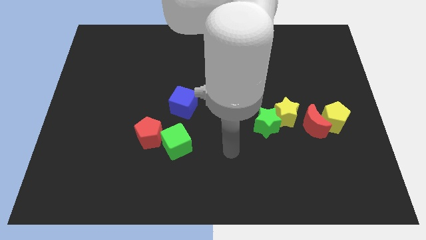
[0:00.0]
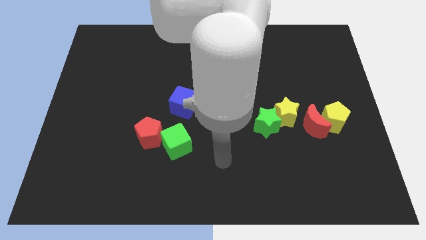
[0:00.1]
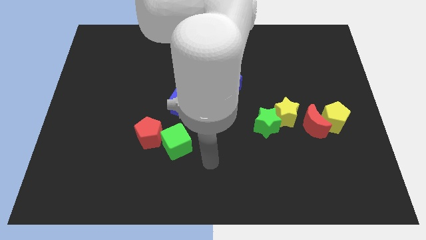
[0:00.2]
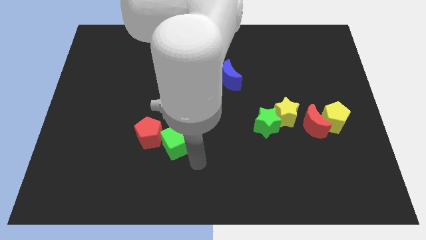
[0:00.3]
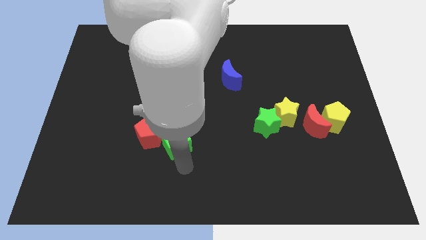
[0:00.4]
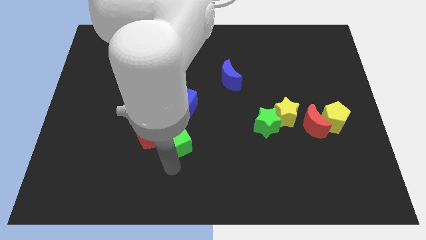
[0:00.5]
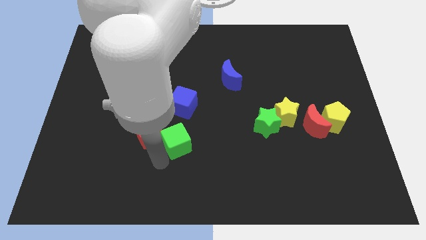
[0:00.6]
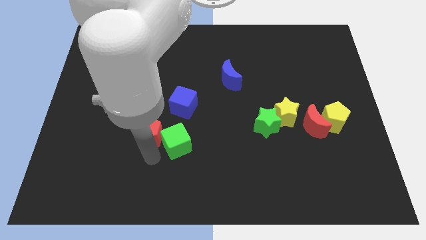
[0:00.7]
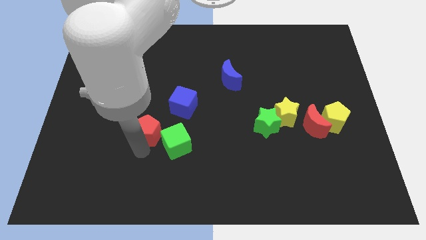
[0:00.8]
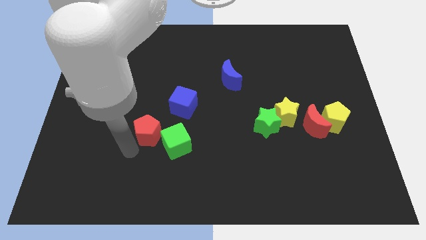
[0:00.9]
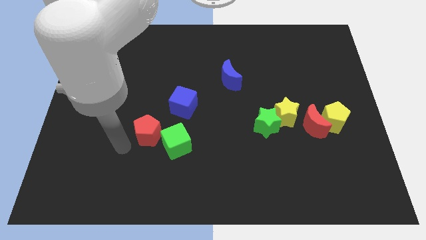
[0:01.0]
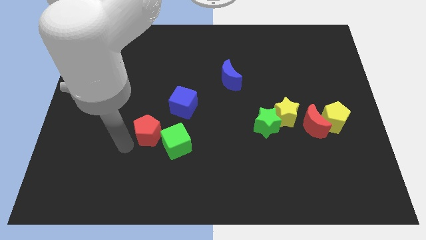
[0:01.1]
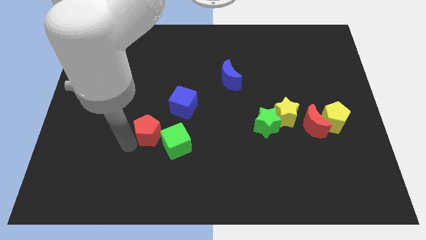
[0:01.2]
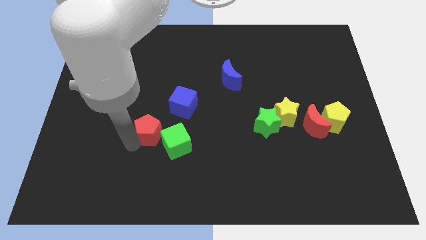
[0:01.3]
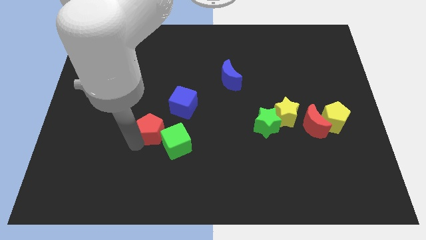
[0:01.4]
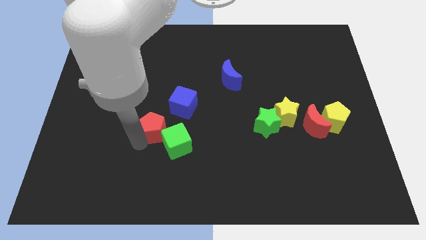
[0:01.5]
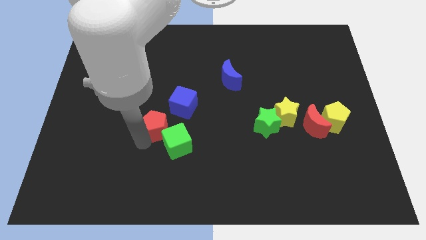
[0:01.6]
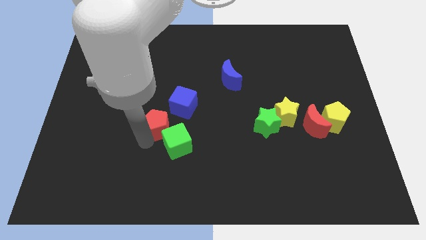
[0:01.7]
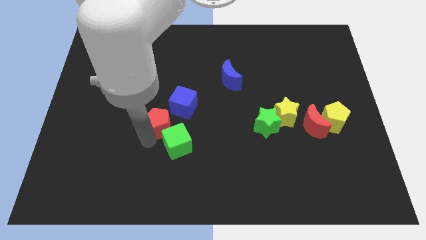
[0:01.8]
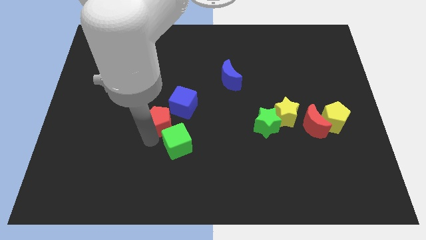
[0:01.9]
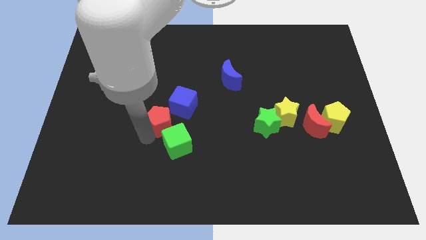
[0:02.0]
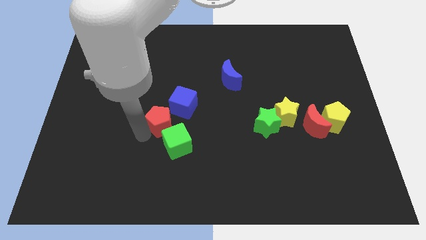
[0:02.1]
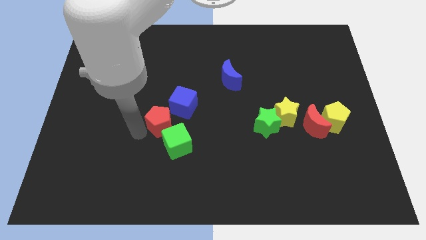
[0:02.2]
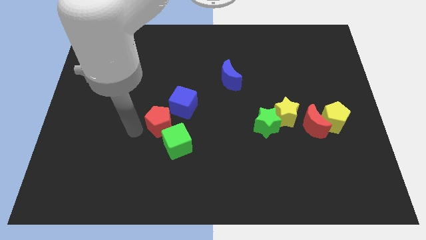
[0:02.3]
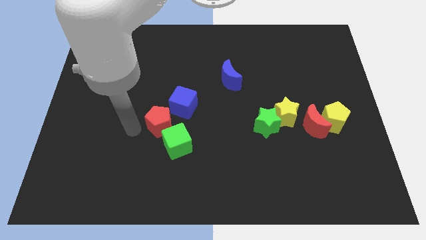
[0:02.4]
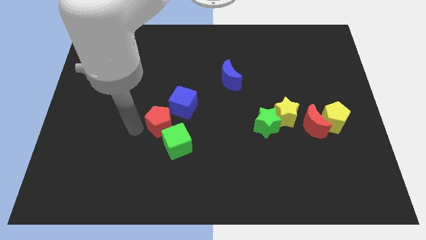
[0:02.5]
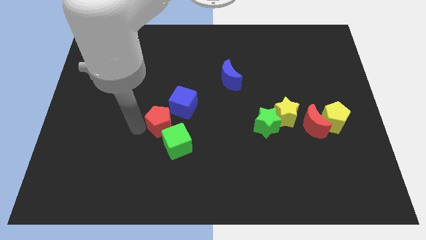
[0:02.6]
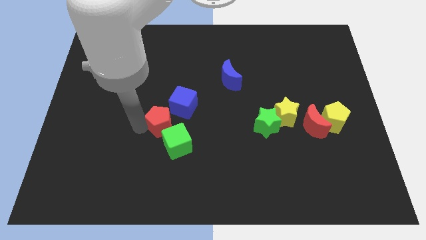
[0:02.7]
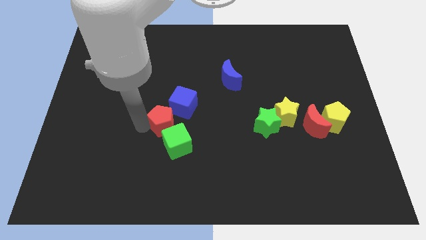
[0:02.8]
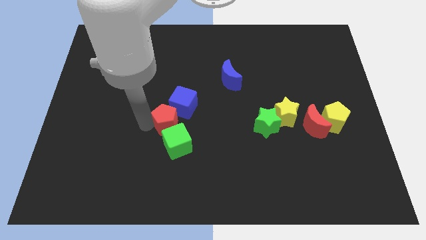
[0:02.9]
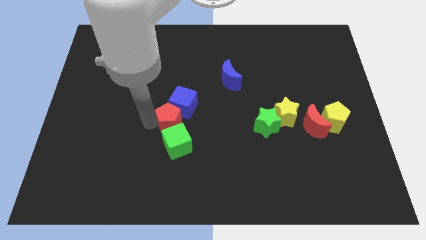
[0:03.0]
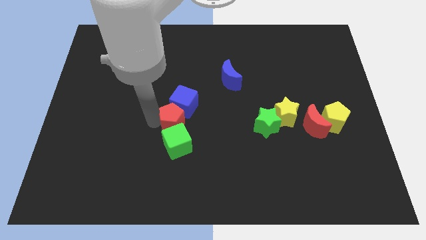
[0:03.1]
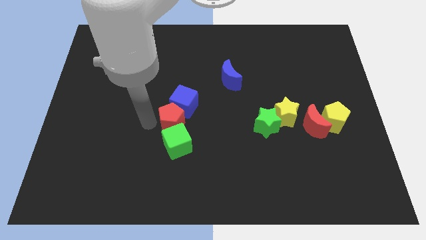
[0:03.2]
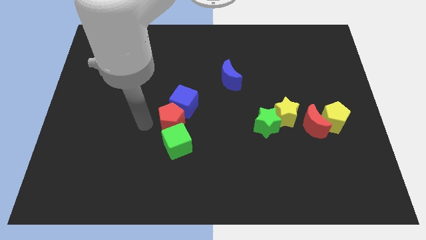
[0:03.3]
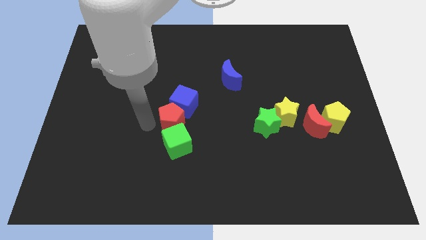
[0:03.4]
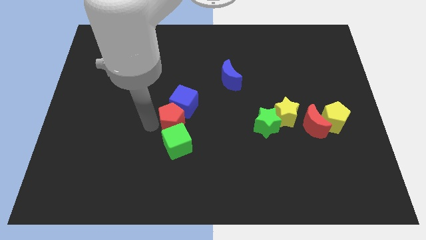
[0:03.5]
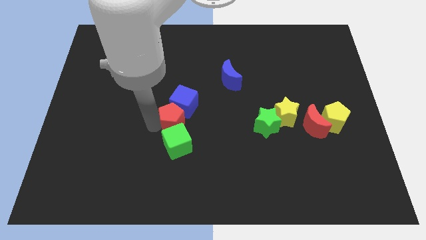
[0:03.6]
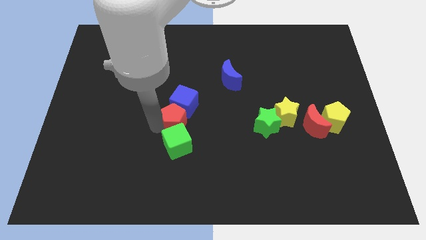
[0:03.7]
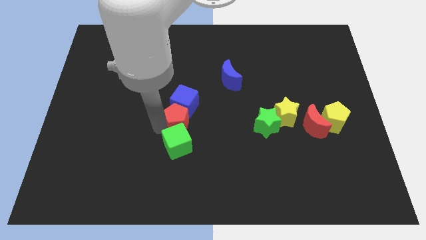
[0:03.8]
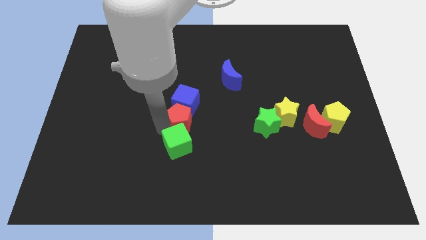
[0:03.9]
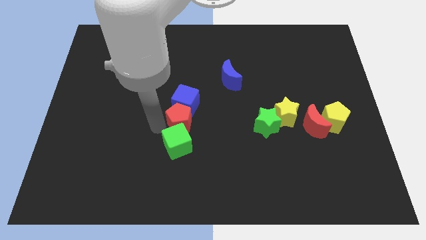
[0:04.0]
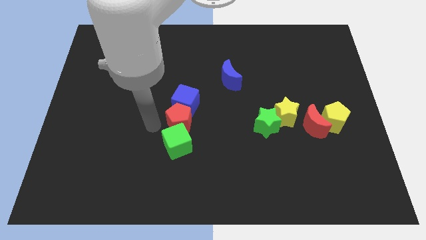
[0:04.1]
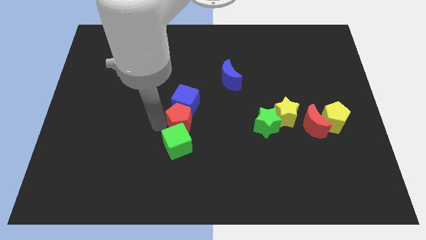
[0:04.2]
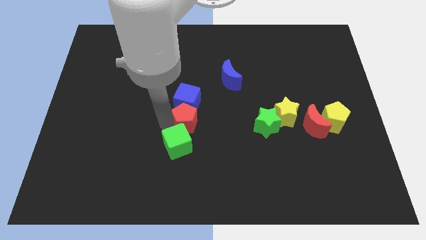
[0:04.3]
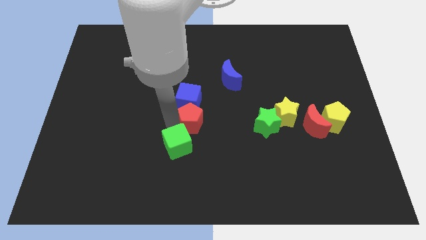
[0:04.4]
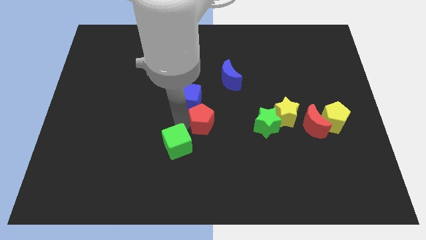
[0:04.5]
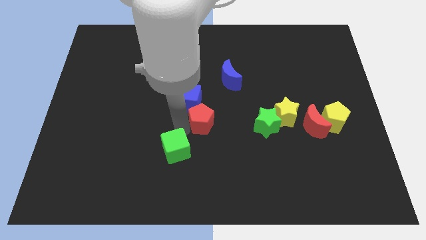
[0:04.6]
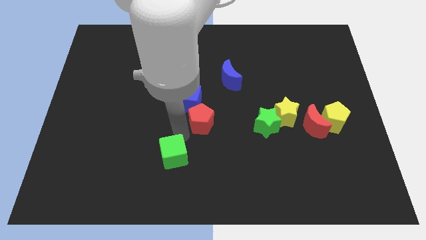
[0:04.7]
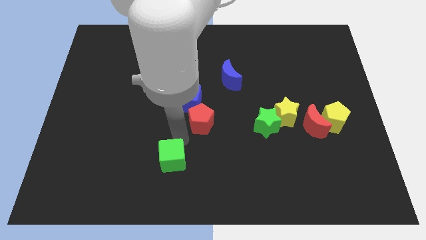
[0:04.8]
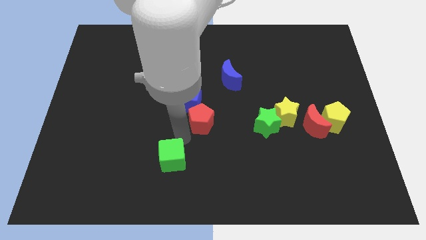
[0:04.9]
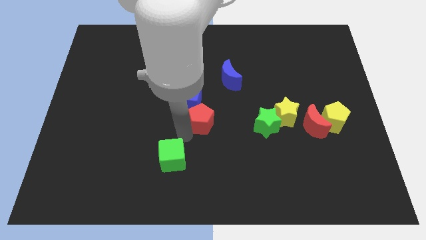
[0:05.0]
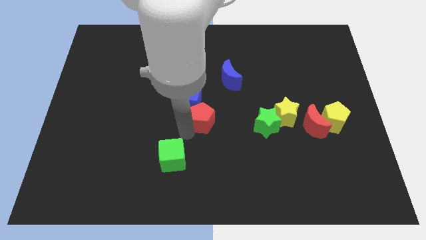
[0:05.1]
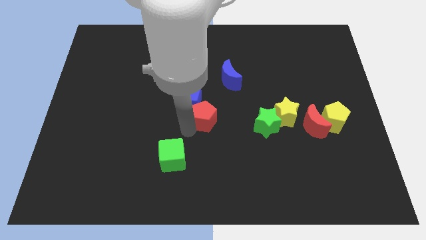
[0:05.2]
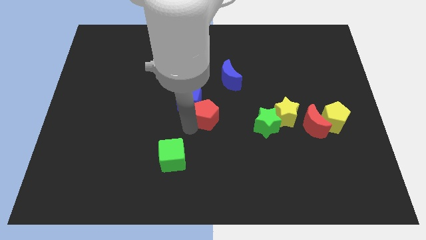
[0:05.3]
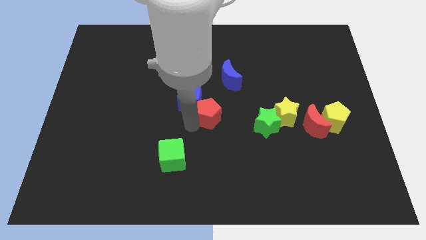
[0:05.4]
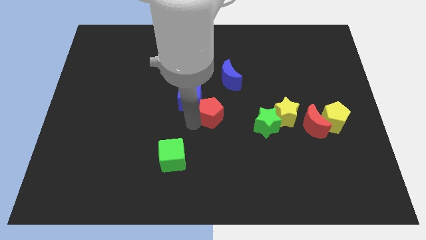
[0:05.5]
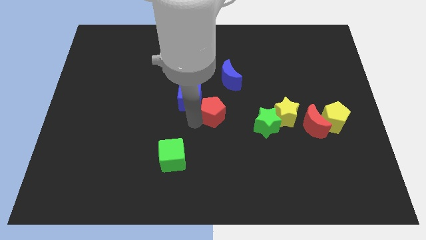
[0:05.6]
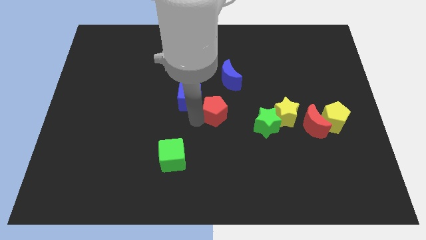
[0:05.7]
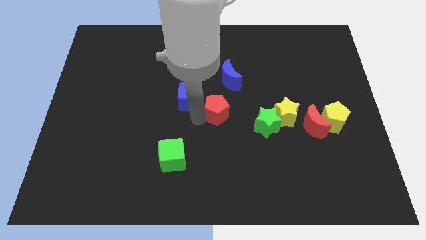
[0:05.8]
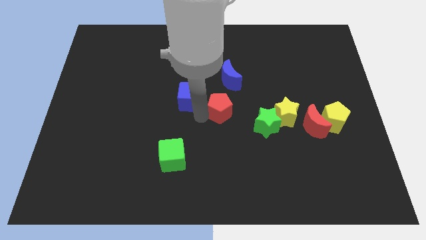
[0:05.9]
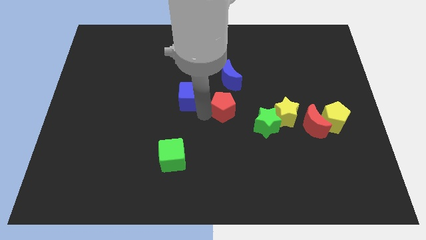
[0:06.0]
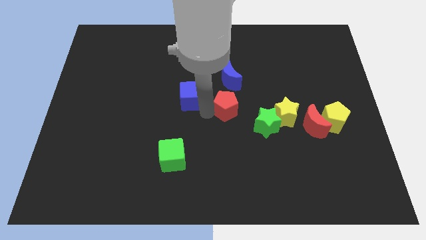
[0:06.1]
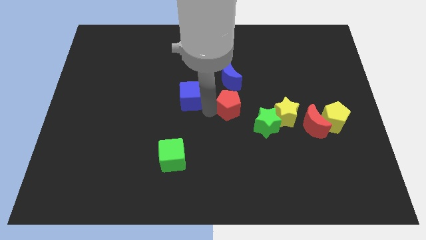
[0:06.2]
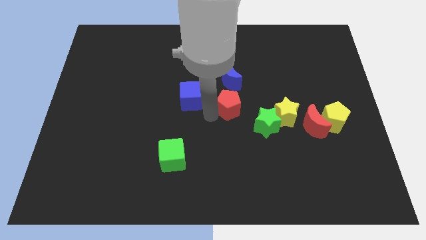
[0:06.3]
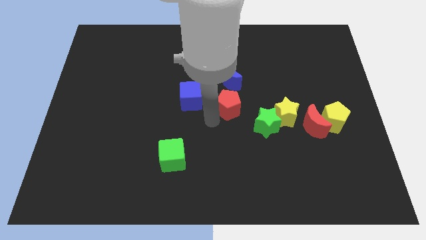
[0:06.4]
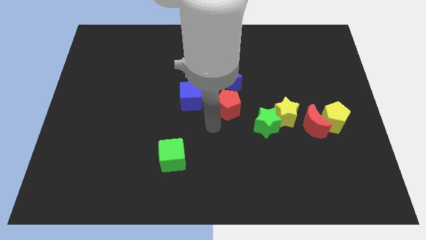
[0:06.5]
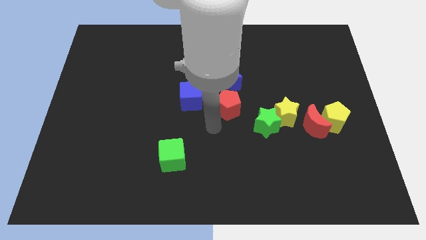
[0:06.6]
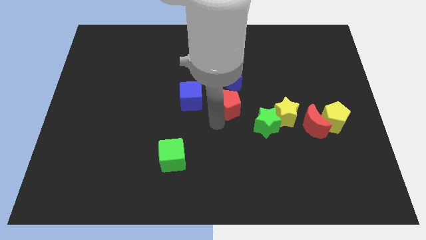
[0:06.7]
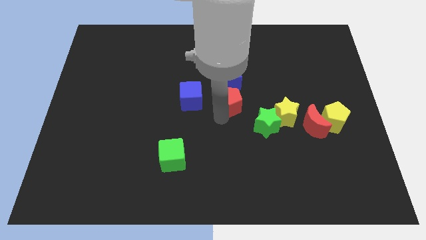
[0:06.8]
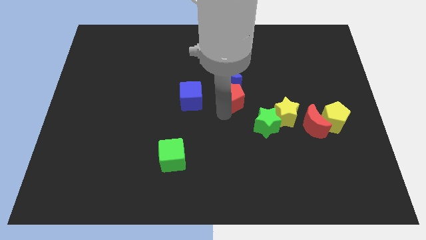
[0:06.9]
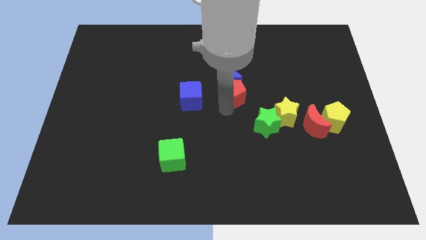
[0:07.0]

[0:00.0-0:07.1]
push the red pentagon diagonally upwards and to the right
